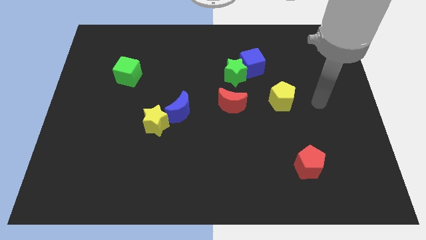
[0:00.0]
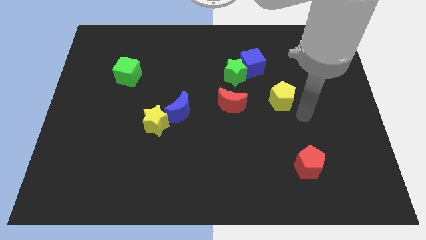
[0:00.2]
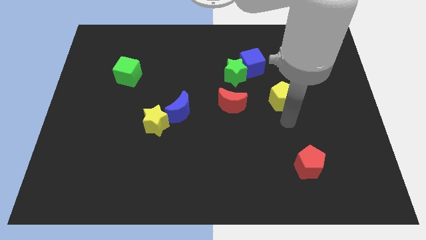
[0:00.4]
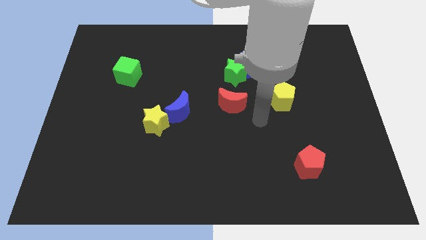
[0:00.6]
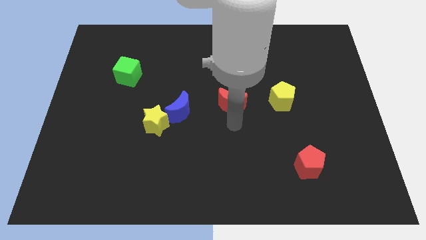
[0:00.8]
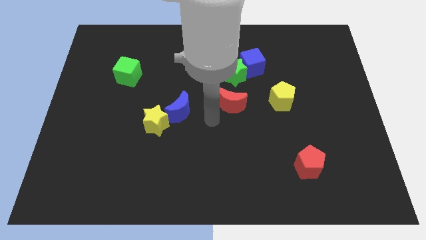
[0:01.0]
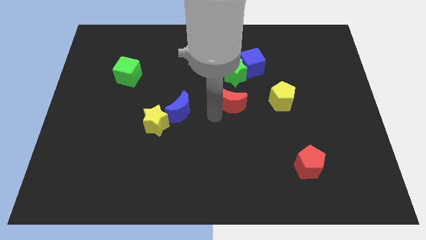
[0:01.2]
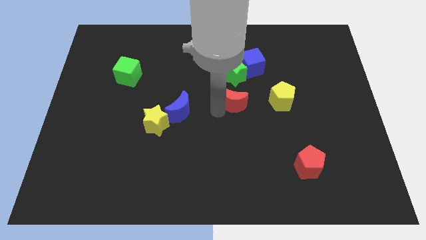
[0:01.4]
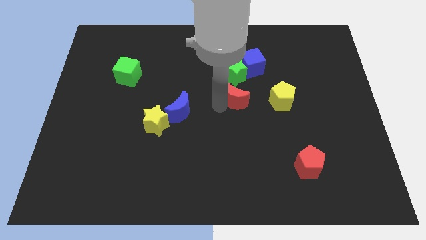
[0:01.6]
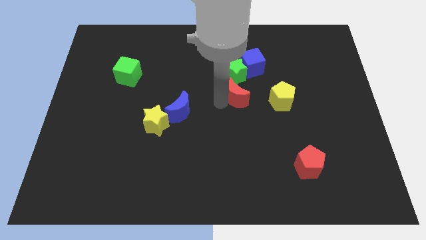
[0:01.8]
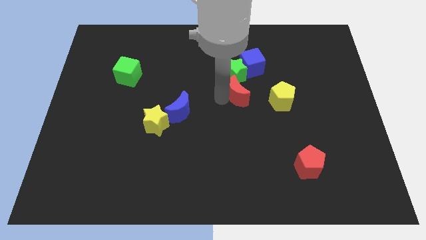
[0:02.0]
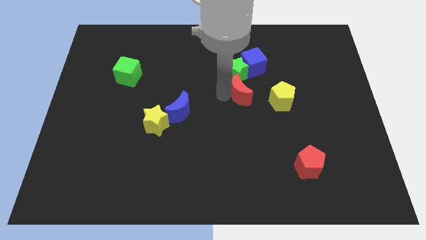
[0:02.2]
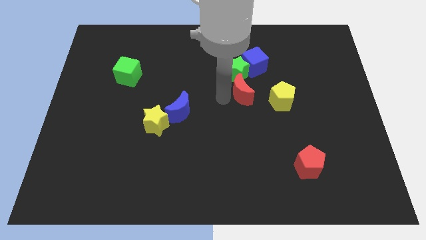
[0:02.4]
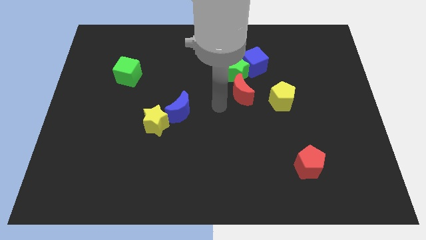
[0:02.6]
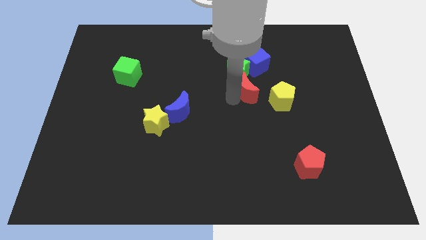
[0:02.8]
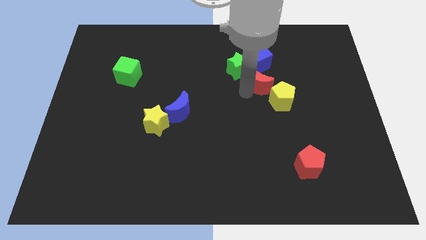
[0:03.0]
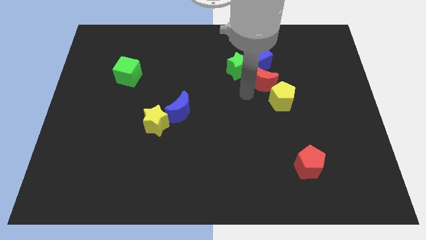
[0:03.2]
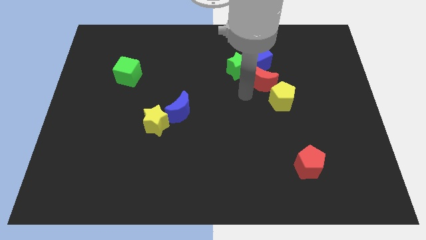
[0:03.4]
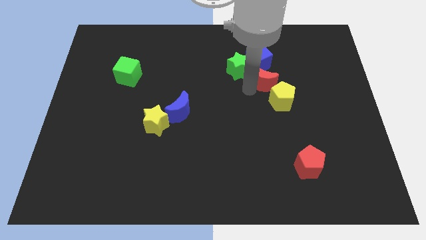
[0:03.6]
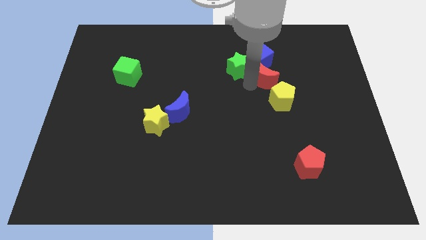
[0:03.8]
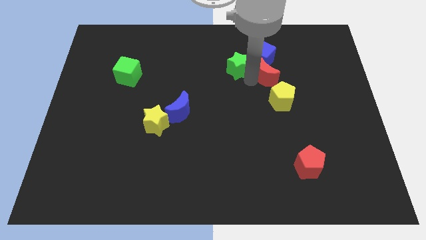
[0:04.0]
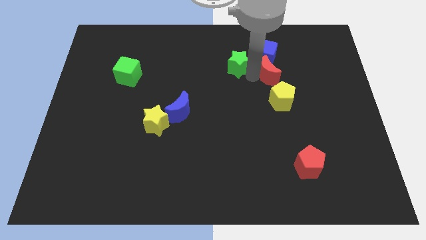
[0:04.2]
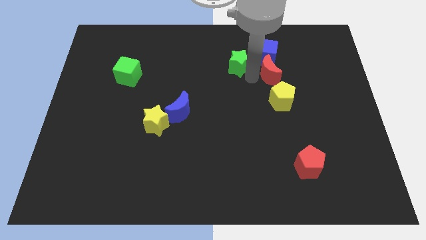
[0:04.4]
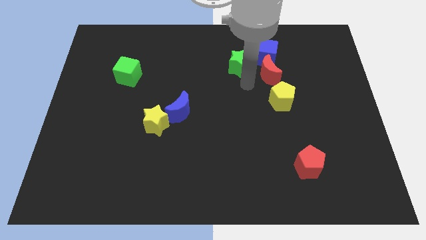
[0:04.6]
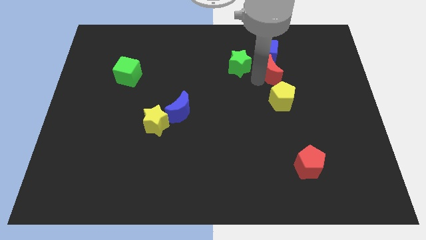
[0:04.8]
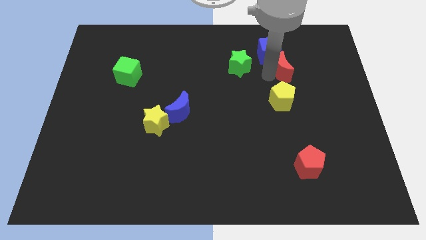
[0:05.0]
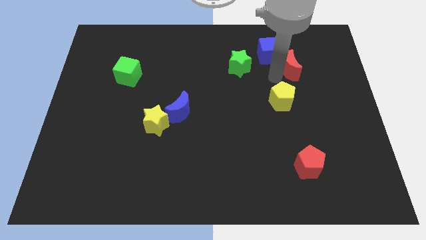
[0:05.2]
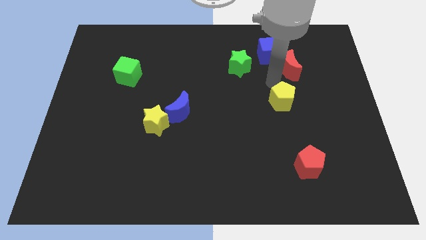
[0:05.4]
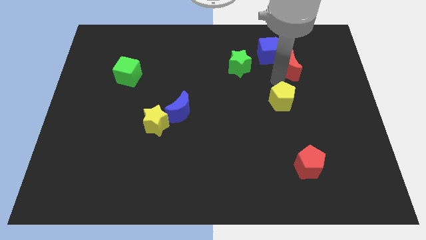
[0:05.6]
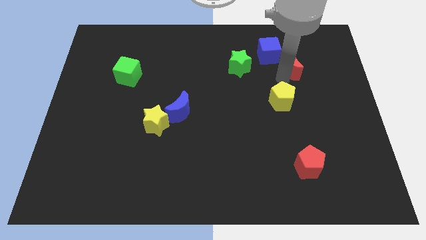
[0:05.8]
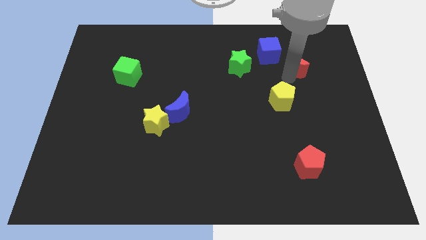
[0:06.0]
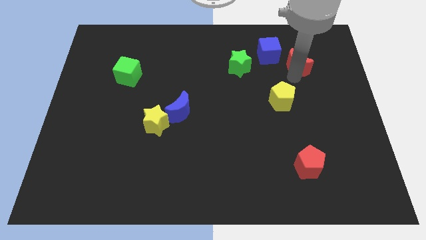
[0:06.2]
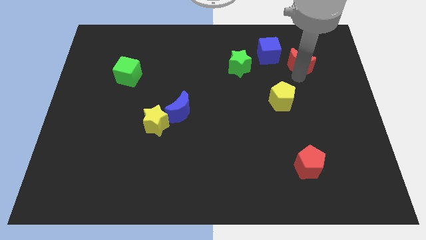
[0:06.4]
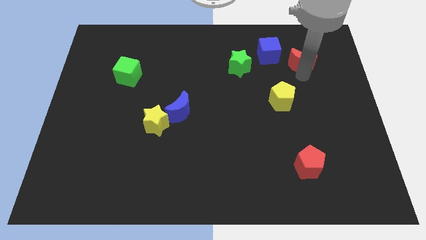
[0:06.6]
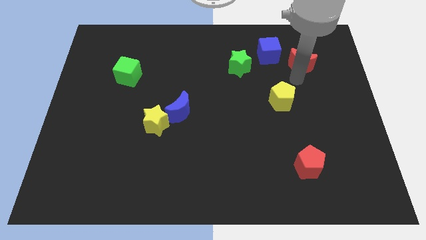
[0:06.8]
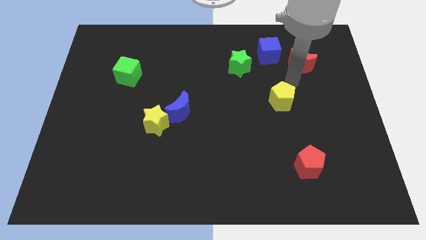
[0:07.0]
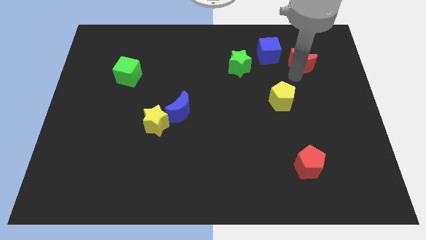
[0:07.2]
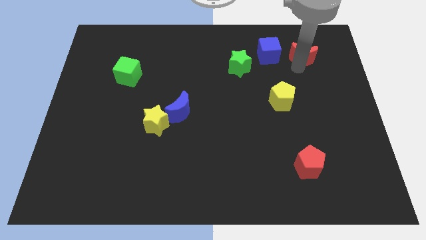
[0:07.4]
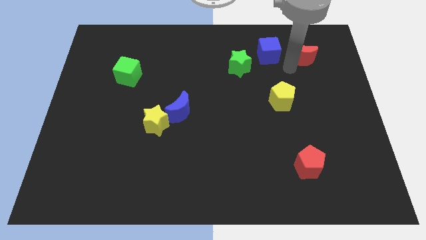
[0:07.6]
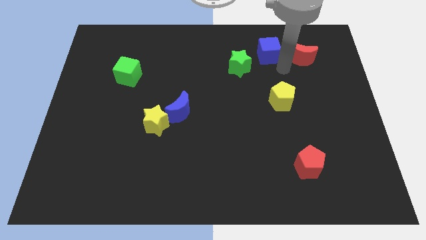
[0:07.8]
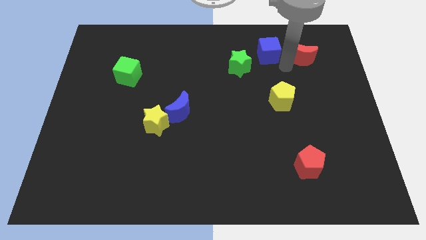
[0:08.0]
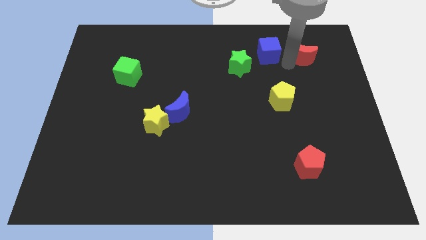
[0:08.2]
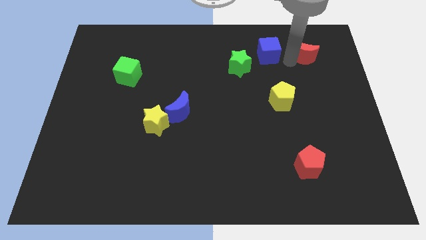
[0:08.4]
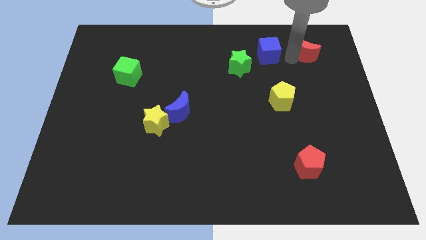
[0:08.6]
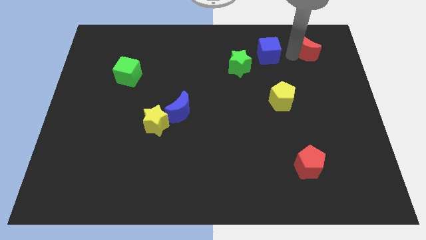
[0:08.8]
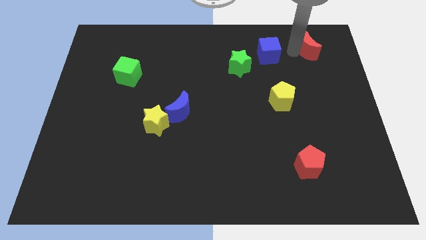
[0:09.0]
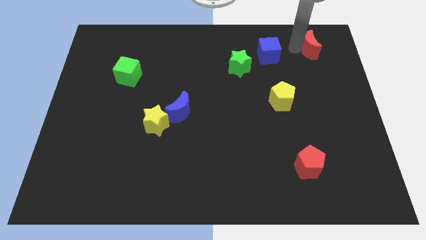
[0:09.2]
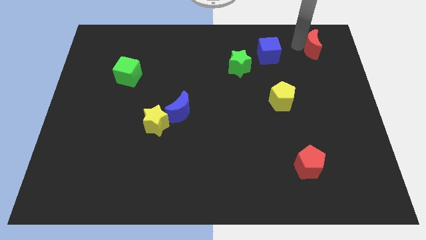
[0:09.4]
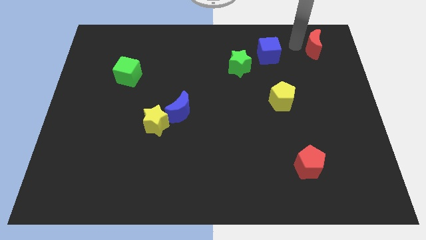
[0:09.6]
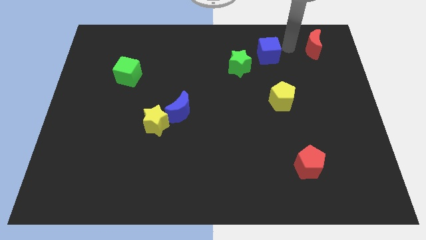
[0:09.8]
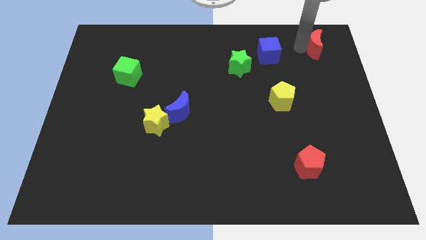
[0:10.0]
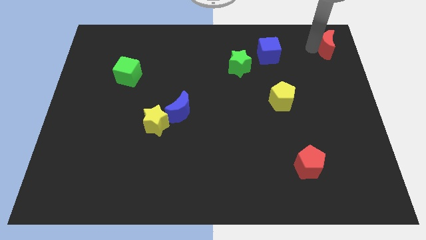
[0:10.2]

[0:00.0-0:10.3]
move the red moon to the top right of the board

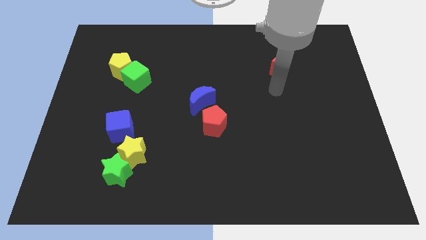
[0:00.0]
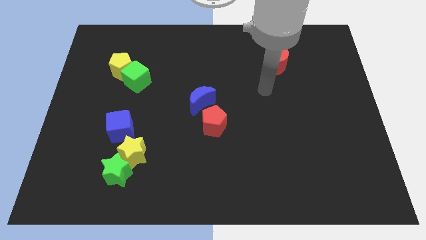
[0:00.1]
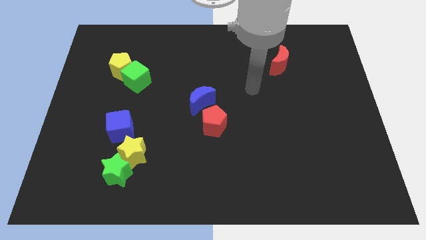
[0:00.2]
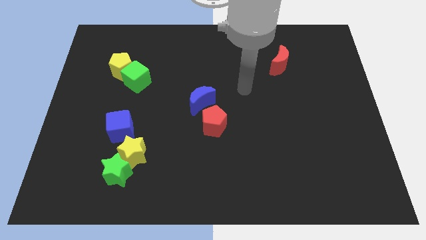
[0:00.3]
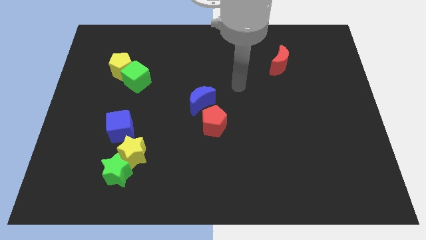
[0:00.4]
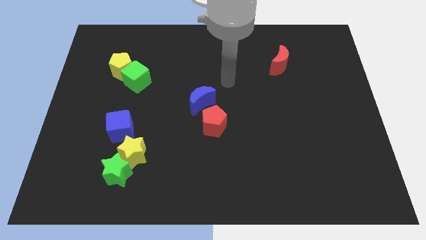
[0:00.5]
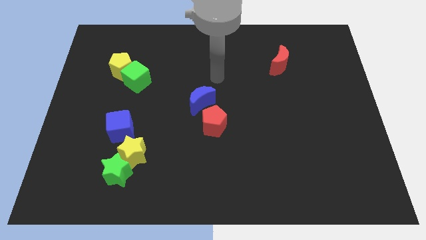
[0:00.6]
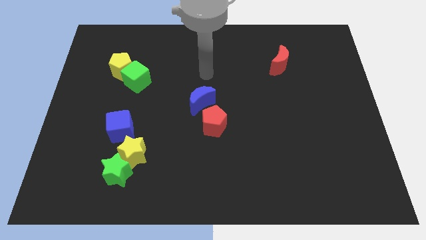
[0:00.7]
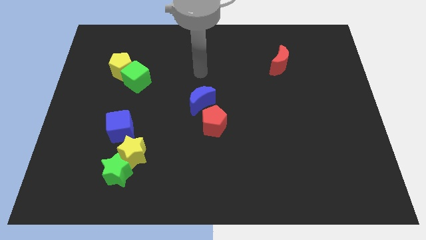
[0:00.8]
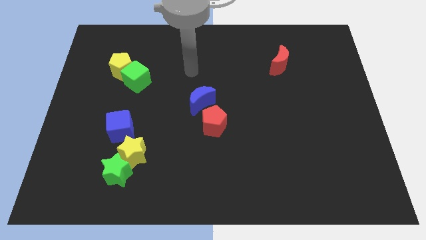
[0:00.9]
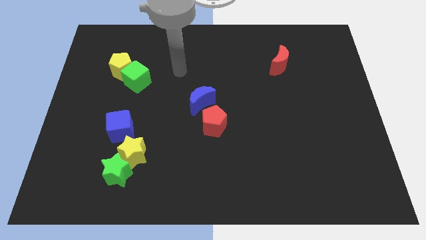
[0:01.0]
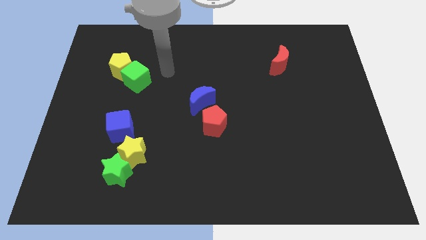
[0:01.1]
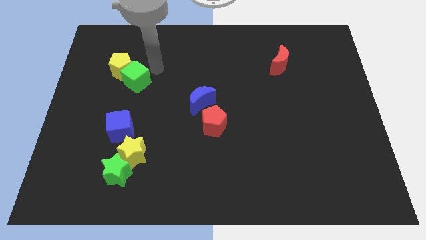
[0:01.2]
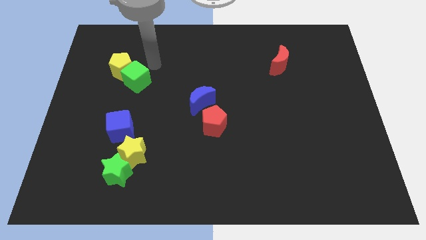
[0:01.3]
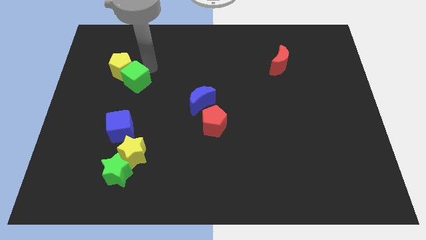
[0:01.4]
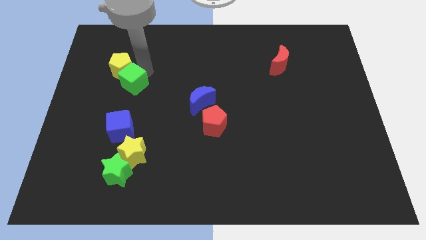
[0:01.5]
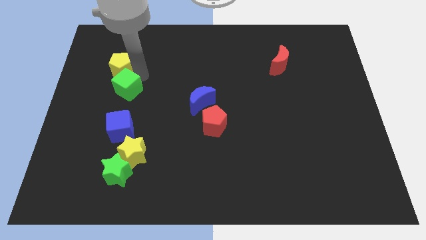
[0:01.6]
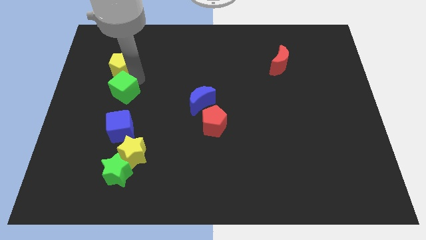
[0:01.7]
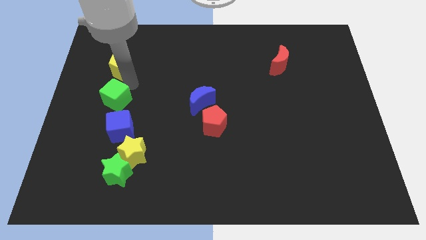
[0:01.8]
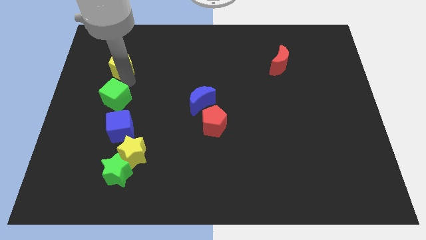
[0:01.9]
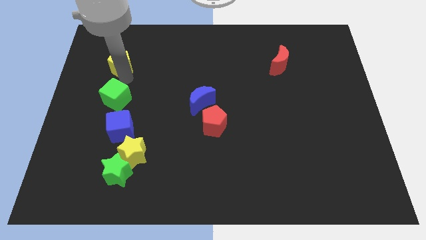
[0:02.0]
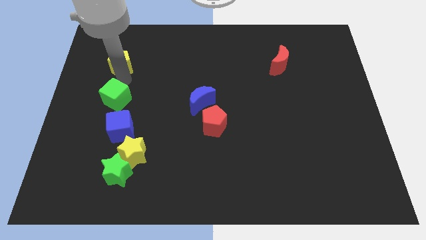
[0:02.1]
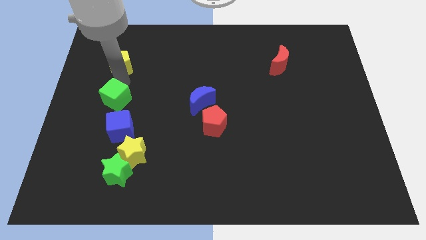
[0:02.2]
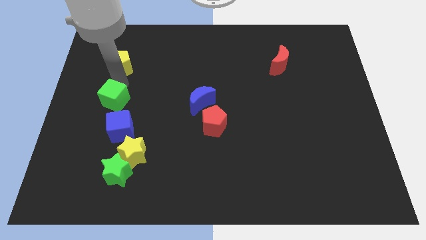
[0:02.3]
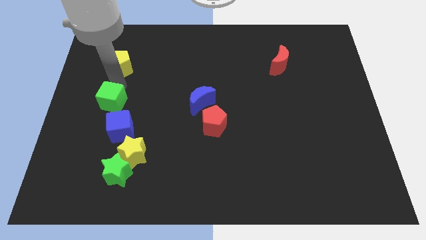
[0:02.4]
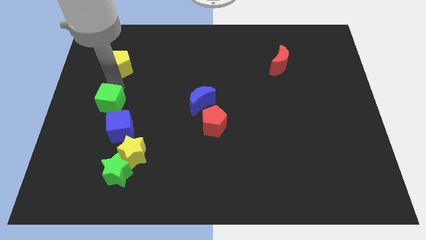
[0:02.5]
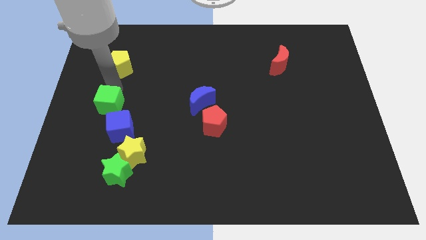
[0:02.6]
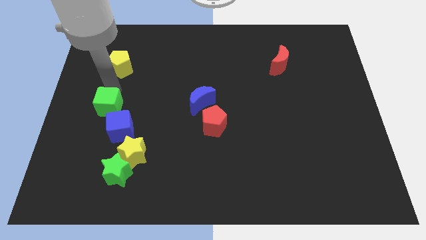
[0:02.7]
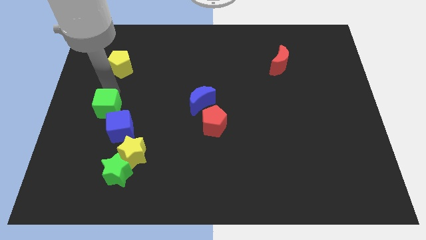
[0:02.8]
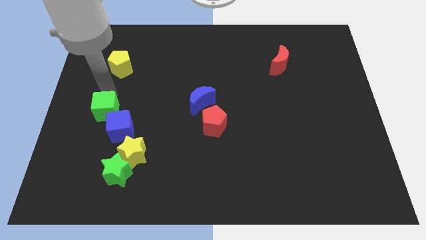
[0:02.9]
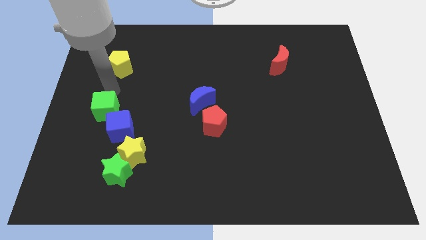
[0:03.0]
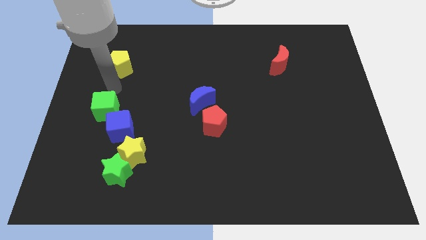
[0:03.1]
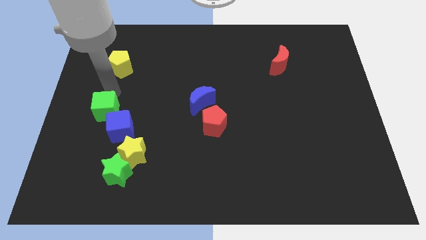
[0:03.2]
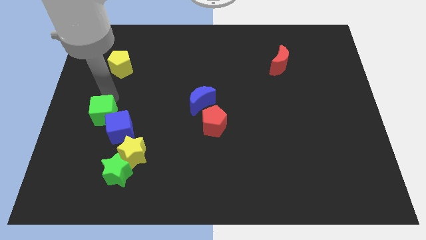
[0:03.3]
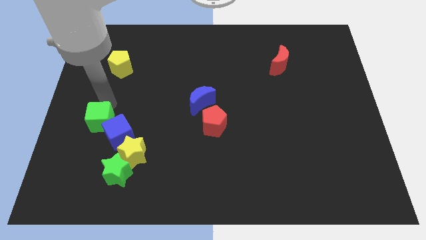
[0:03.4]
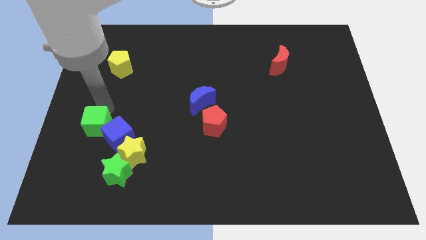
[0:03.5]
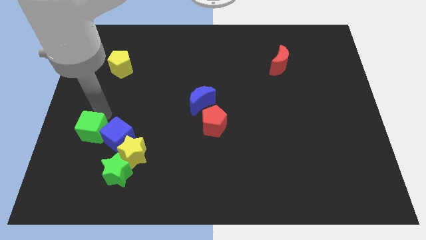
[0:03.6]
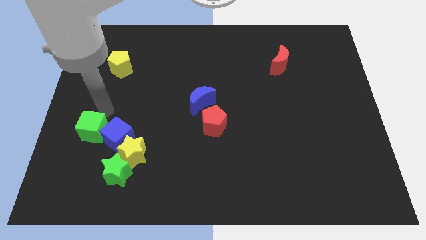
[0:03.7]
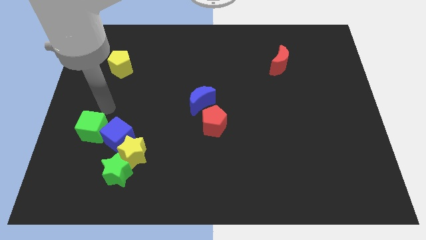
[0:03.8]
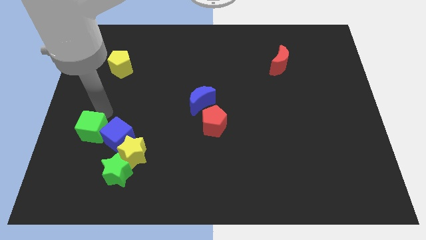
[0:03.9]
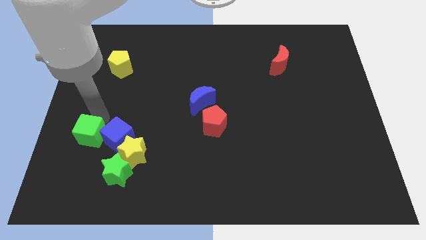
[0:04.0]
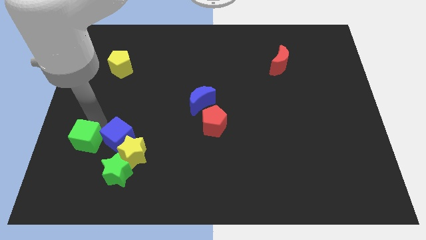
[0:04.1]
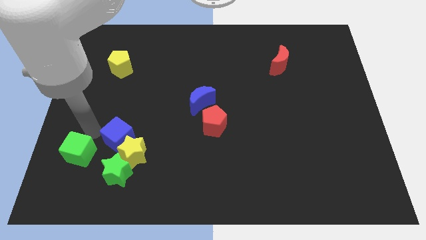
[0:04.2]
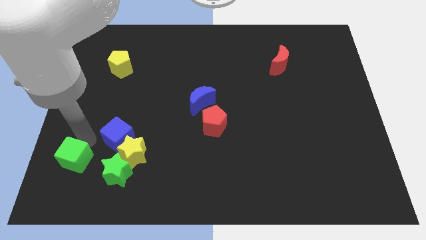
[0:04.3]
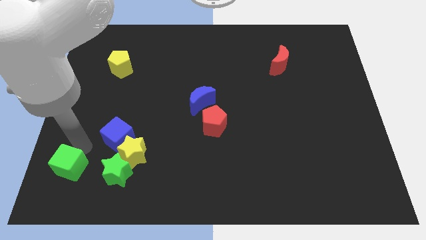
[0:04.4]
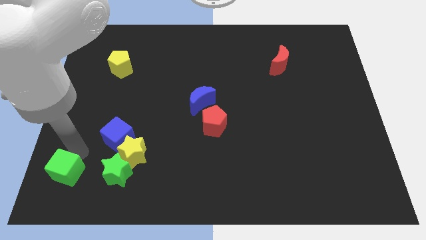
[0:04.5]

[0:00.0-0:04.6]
push the green cube to the bottom left of the board
